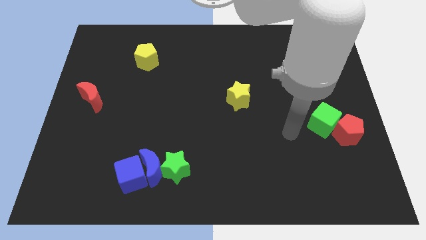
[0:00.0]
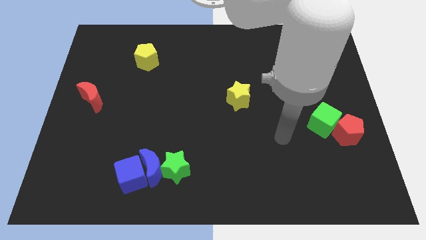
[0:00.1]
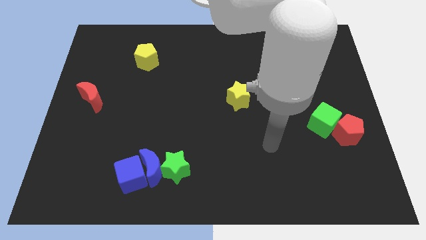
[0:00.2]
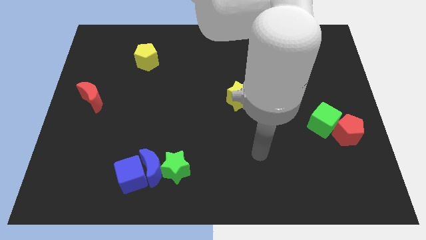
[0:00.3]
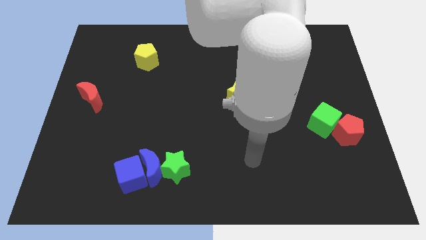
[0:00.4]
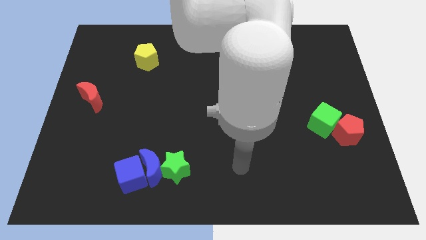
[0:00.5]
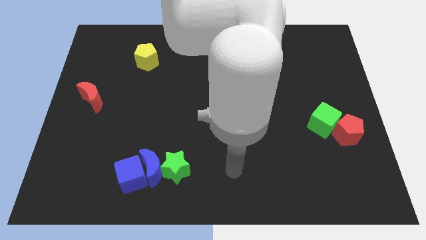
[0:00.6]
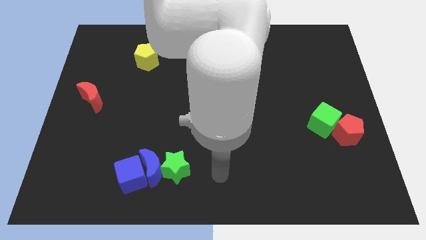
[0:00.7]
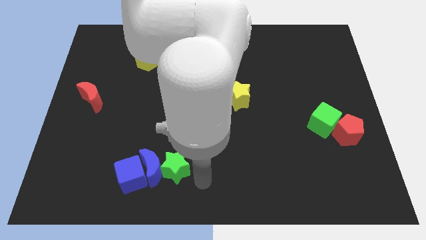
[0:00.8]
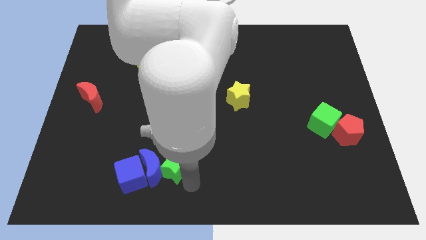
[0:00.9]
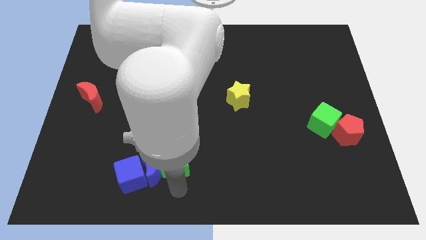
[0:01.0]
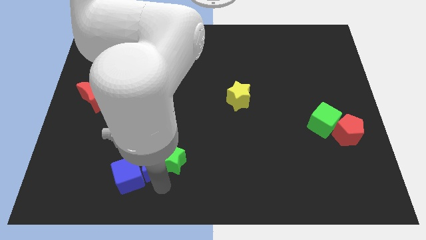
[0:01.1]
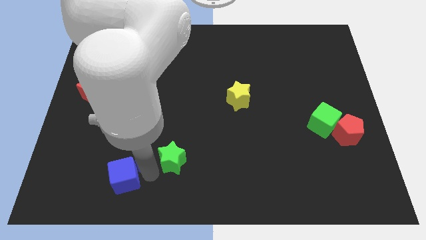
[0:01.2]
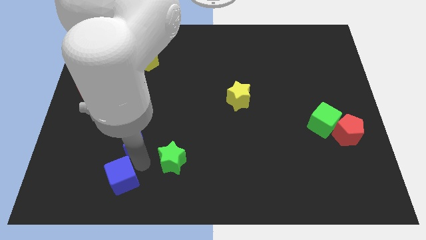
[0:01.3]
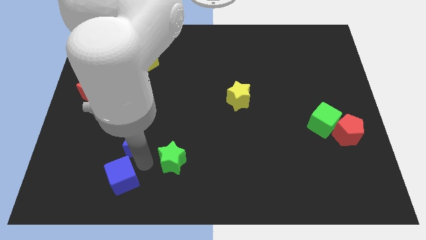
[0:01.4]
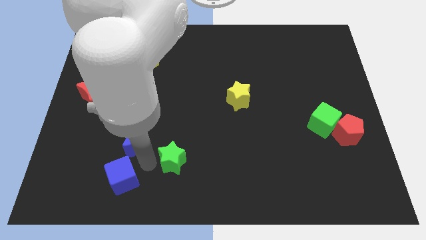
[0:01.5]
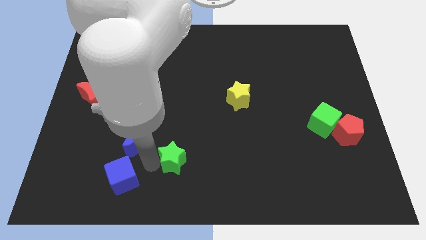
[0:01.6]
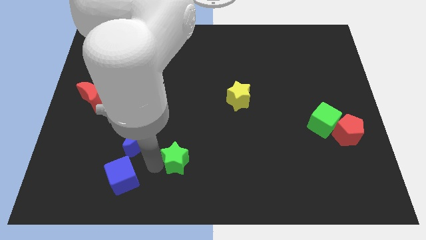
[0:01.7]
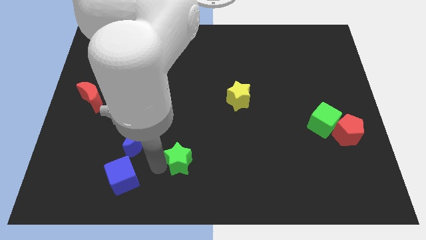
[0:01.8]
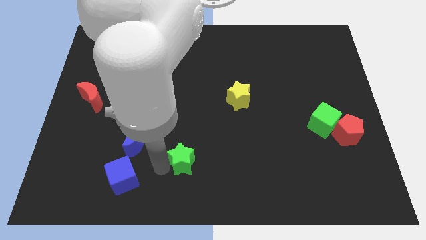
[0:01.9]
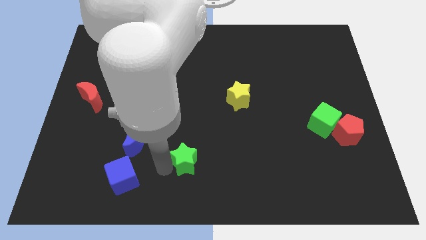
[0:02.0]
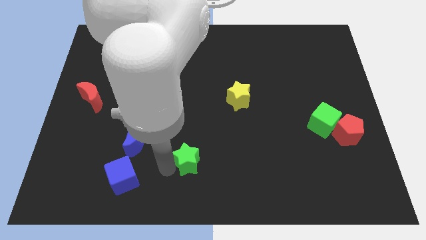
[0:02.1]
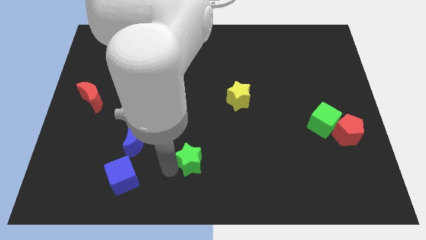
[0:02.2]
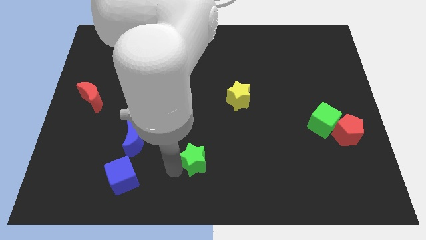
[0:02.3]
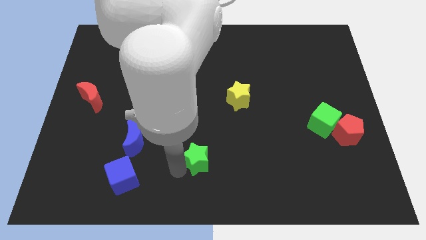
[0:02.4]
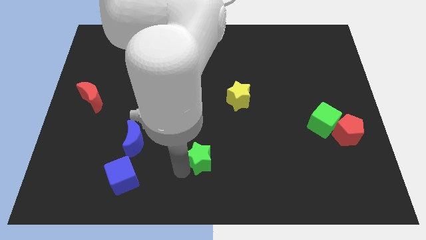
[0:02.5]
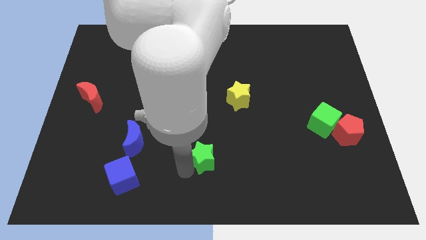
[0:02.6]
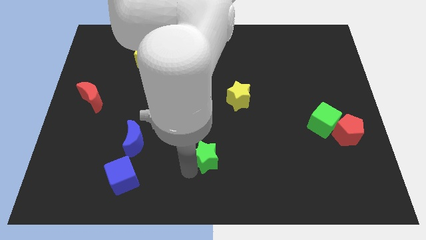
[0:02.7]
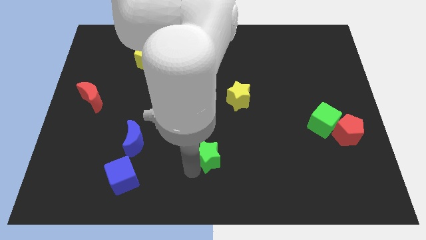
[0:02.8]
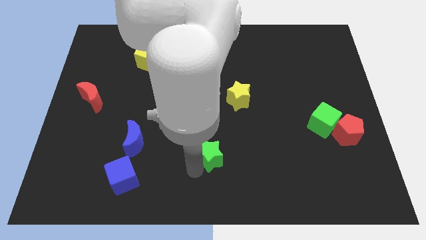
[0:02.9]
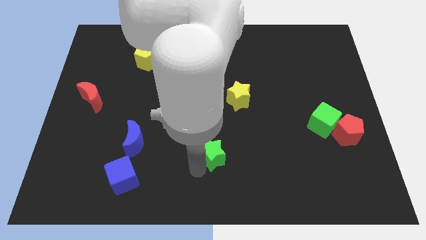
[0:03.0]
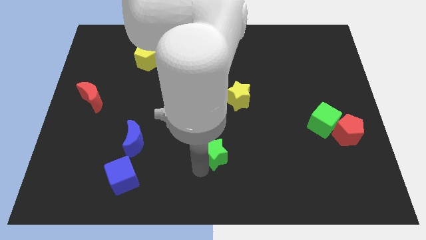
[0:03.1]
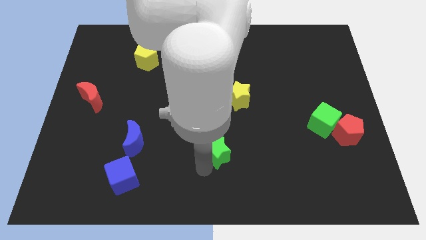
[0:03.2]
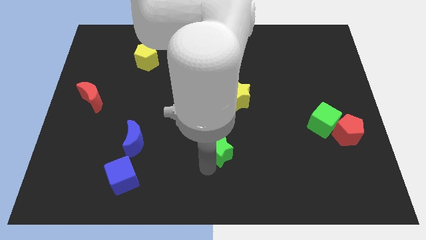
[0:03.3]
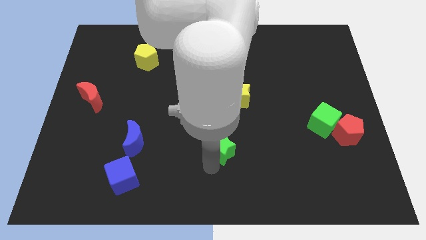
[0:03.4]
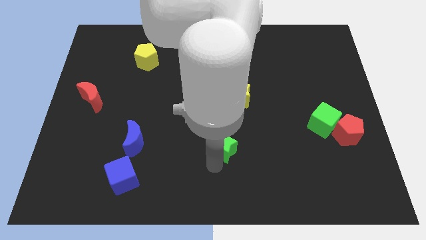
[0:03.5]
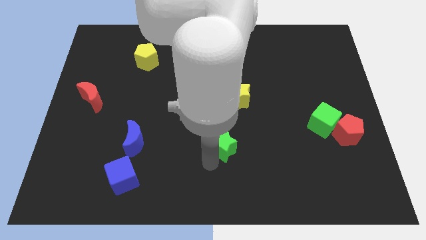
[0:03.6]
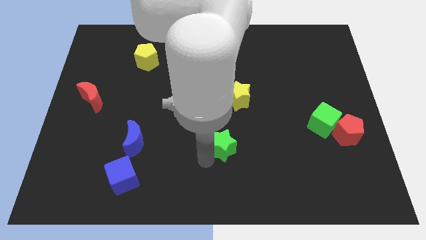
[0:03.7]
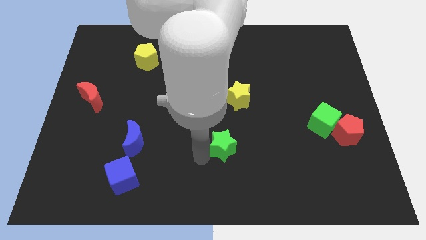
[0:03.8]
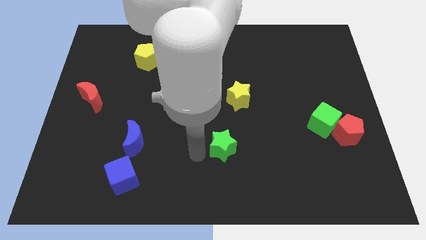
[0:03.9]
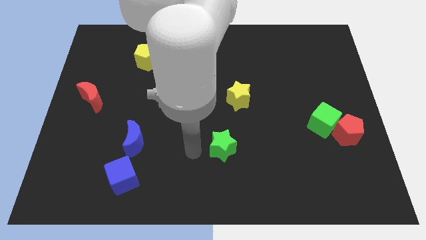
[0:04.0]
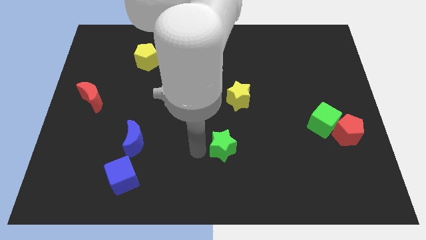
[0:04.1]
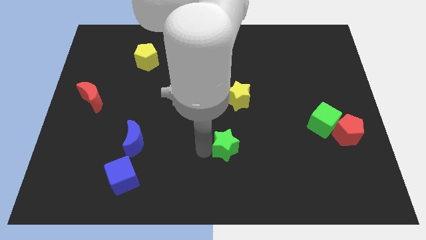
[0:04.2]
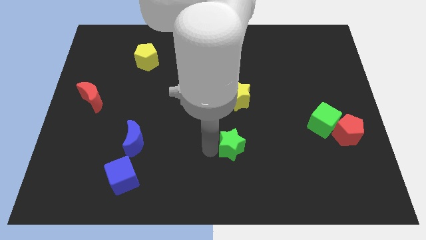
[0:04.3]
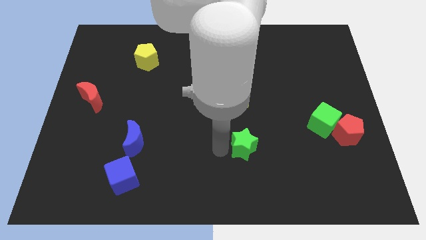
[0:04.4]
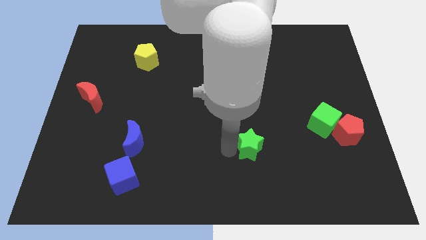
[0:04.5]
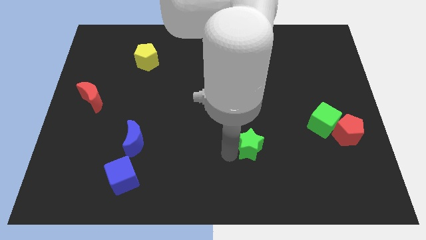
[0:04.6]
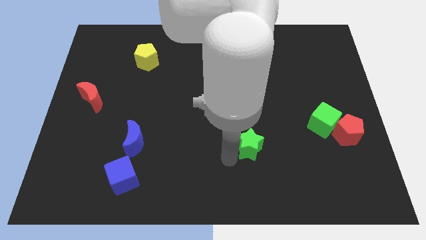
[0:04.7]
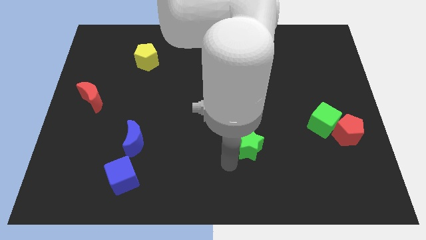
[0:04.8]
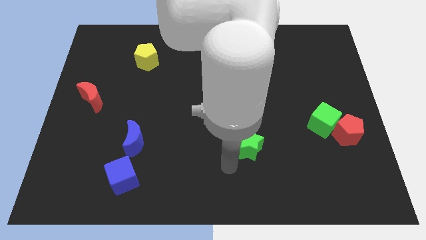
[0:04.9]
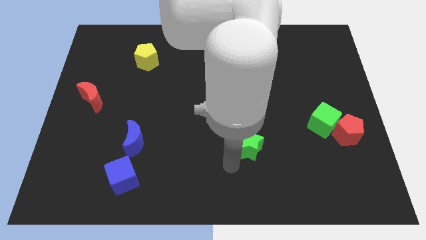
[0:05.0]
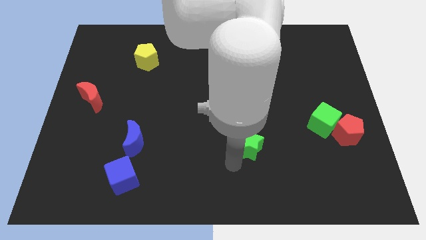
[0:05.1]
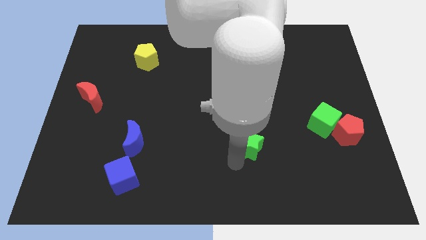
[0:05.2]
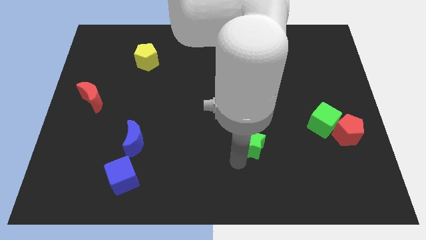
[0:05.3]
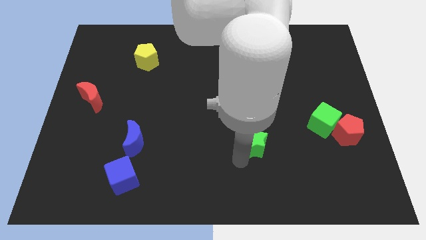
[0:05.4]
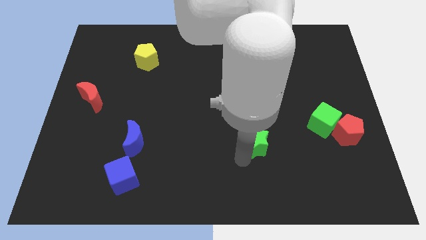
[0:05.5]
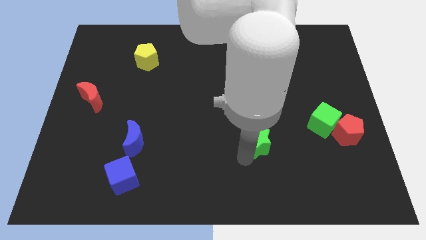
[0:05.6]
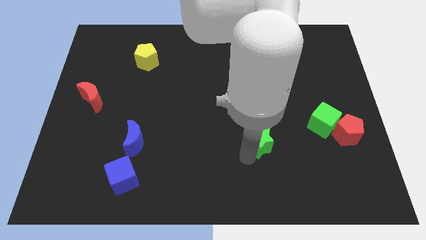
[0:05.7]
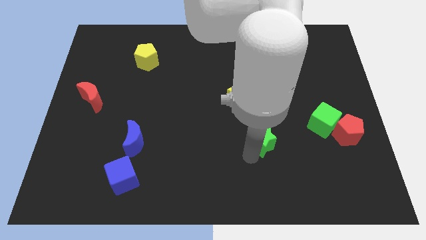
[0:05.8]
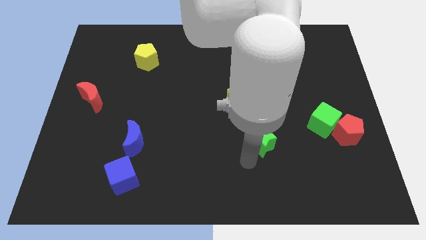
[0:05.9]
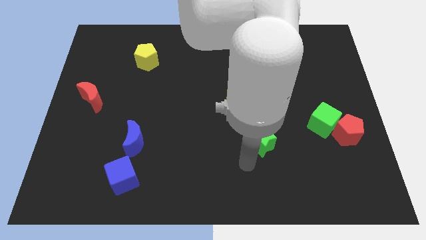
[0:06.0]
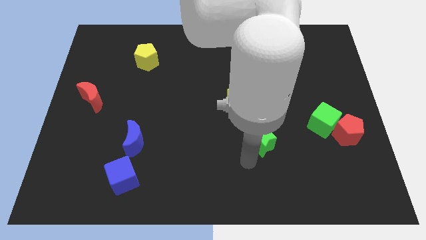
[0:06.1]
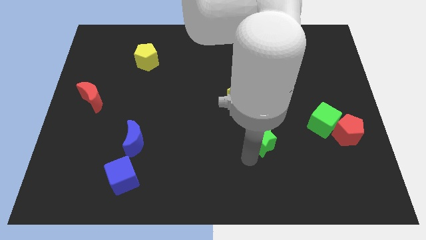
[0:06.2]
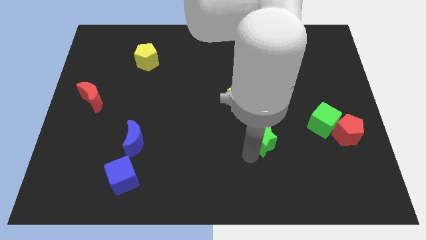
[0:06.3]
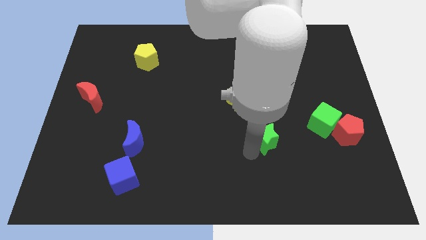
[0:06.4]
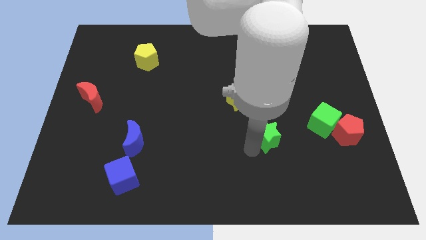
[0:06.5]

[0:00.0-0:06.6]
put the green star left of the green cube

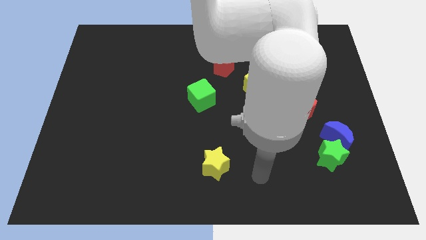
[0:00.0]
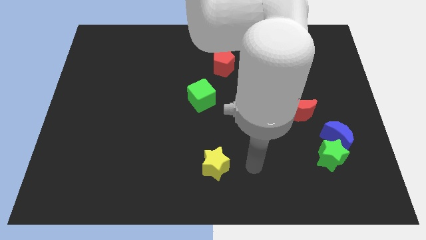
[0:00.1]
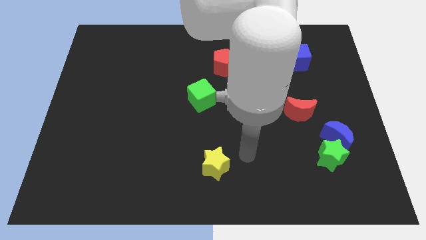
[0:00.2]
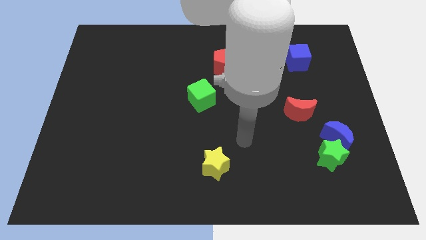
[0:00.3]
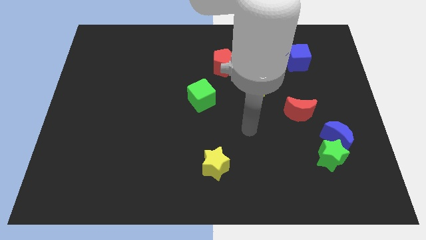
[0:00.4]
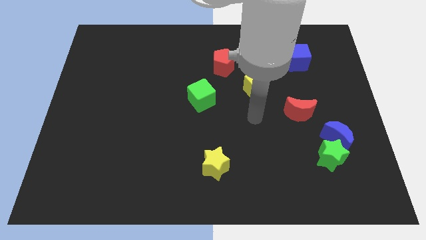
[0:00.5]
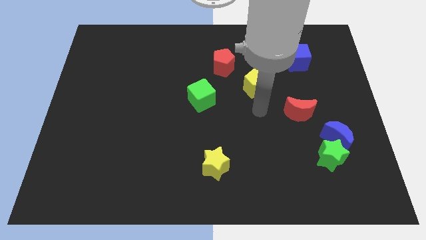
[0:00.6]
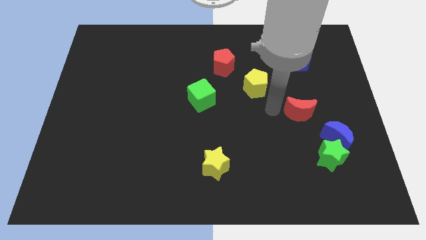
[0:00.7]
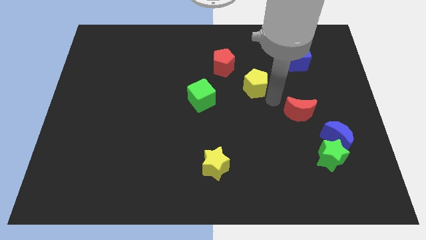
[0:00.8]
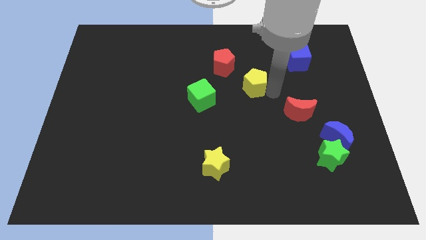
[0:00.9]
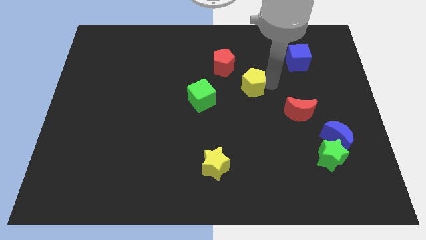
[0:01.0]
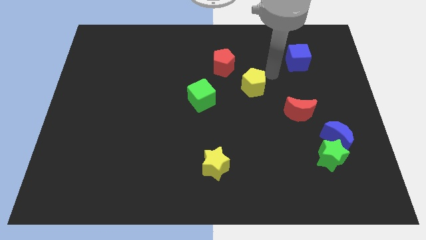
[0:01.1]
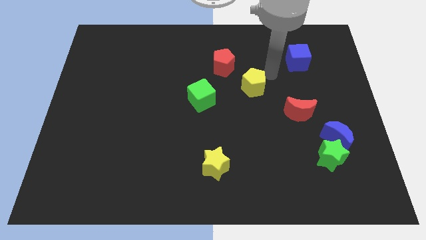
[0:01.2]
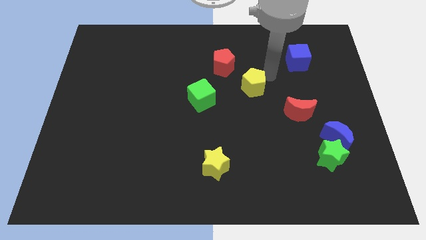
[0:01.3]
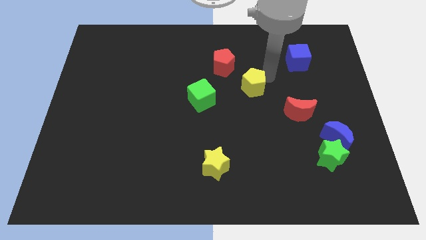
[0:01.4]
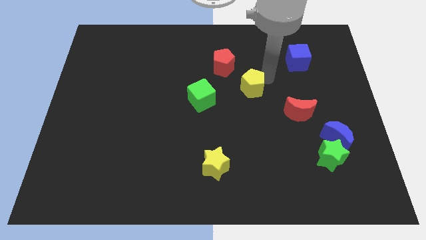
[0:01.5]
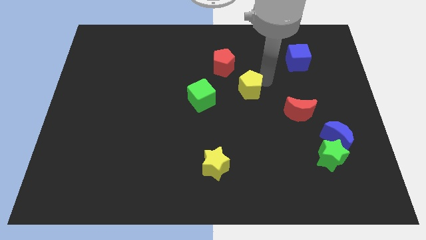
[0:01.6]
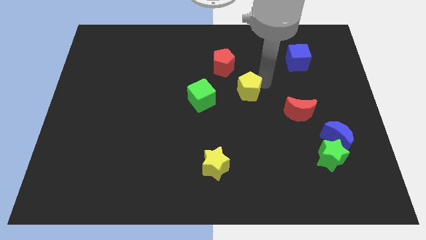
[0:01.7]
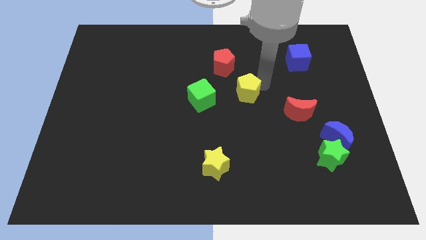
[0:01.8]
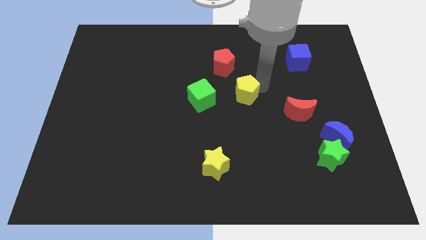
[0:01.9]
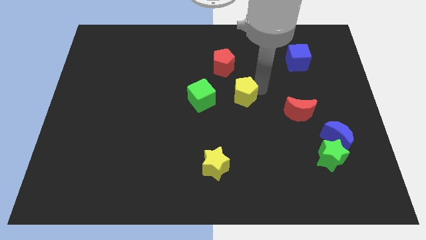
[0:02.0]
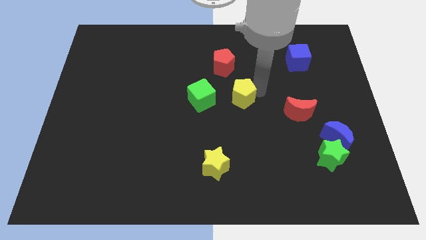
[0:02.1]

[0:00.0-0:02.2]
slide the yellow pentagon to the bottom side of the red pentagon
